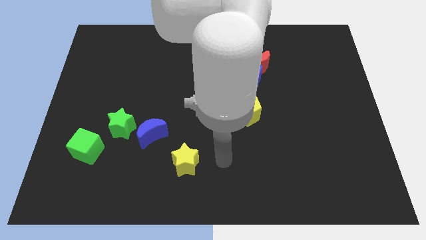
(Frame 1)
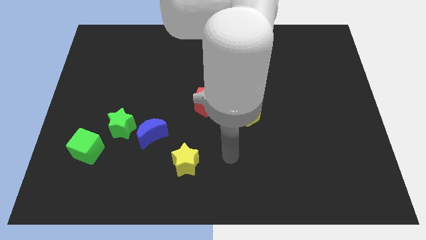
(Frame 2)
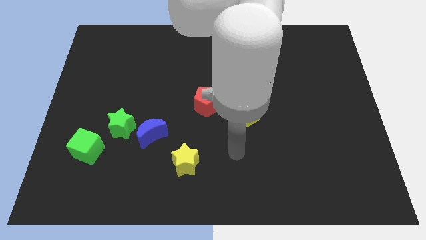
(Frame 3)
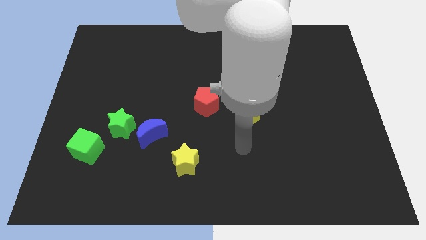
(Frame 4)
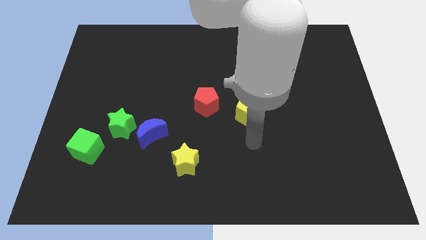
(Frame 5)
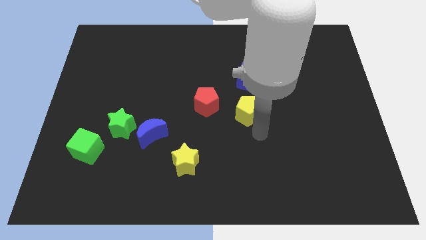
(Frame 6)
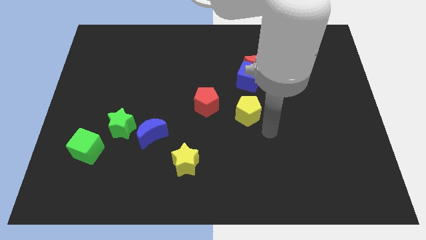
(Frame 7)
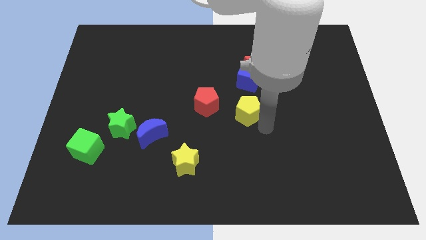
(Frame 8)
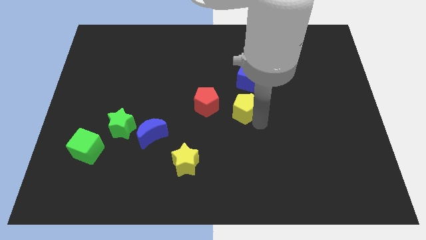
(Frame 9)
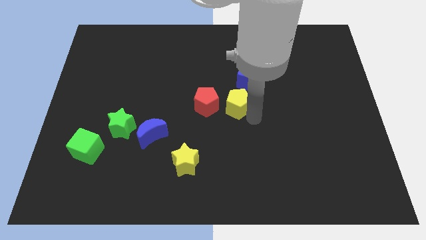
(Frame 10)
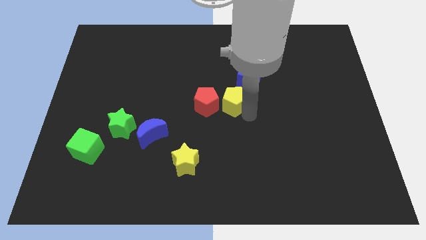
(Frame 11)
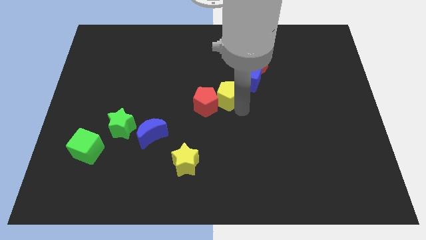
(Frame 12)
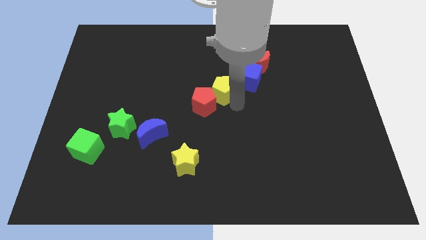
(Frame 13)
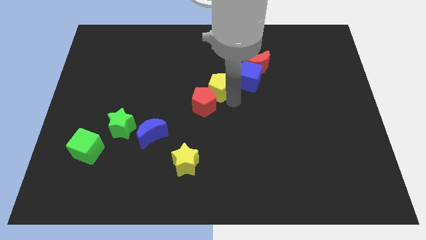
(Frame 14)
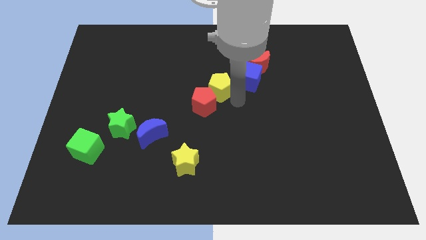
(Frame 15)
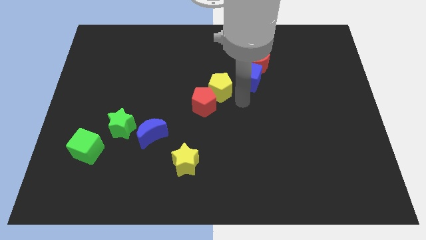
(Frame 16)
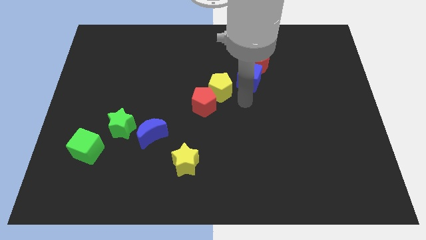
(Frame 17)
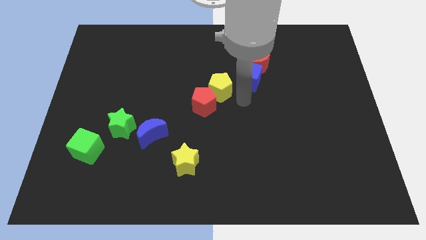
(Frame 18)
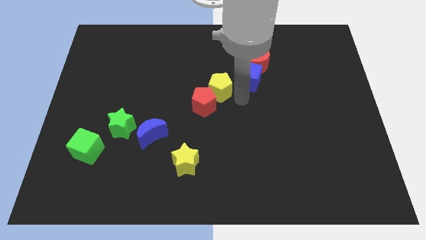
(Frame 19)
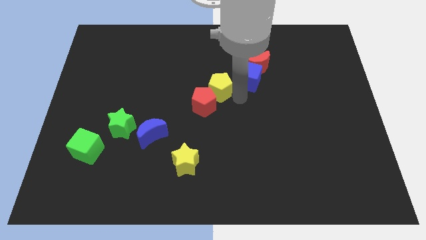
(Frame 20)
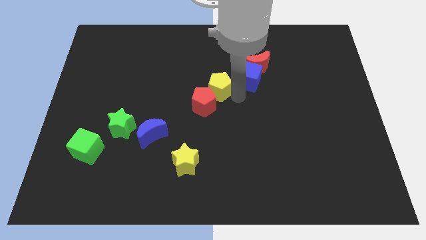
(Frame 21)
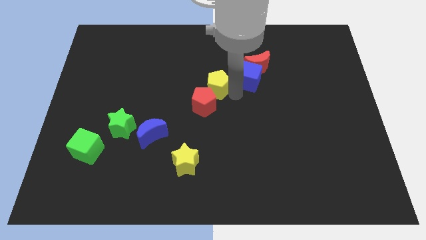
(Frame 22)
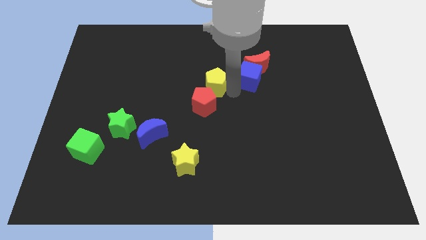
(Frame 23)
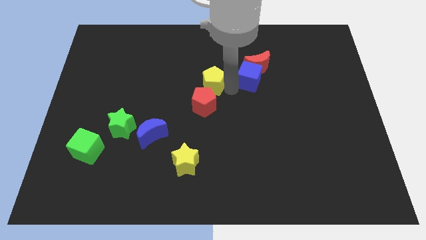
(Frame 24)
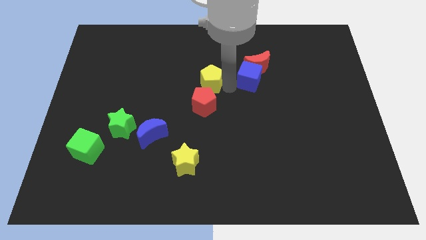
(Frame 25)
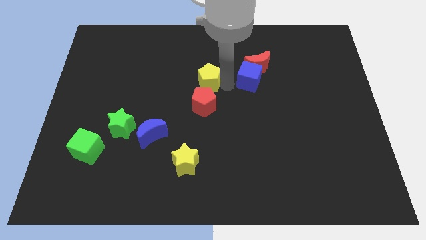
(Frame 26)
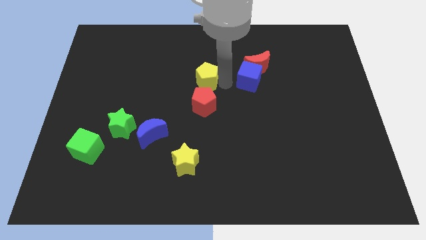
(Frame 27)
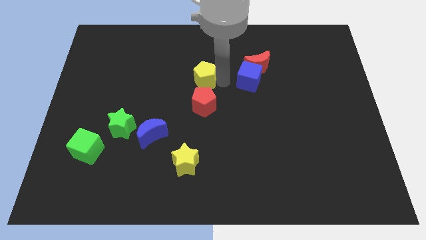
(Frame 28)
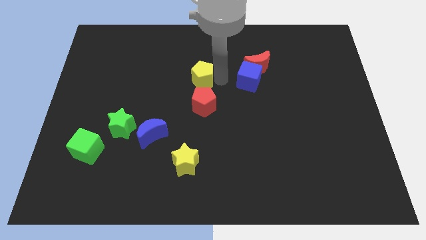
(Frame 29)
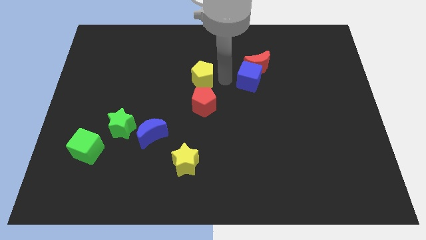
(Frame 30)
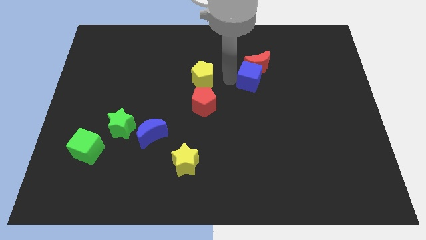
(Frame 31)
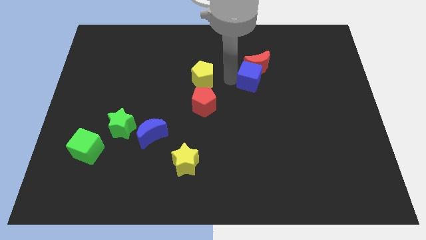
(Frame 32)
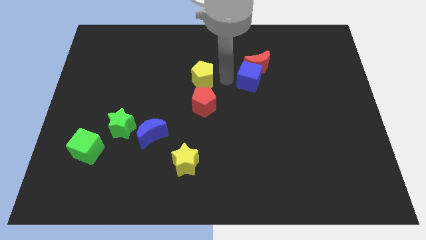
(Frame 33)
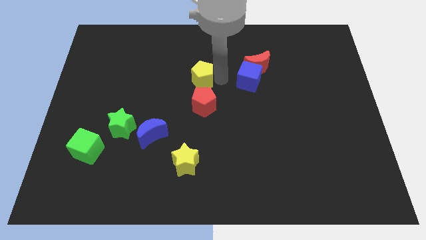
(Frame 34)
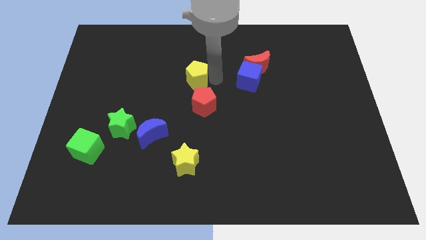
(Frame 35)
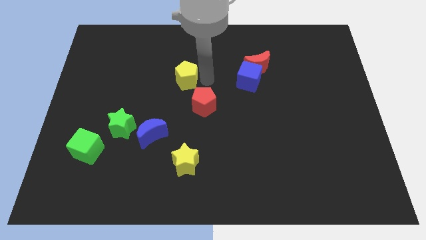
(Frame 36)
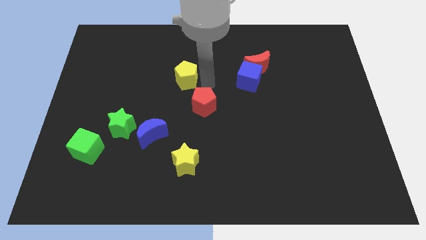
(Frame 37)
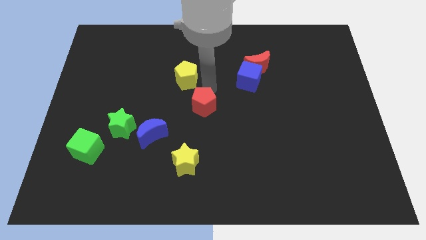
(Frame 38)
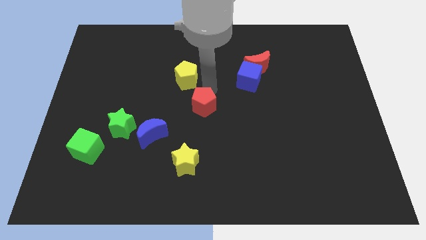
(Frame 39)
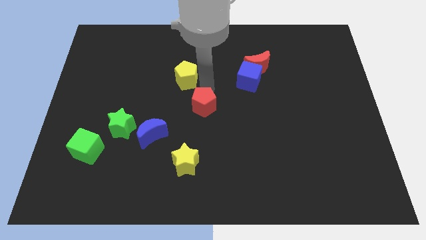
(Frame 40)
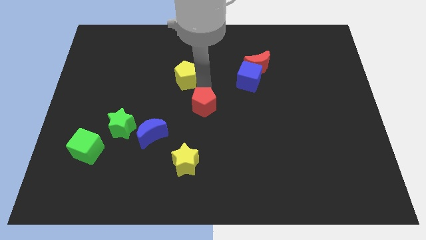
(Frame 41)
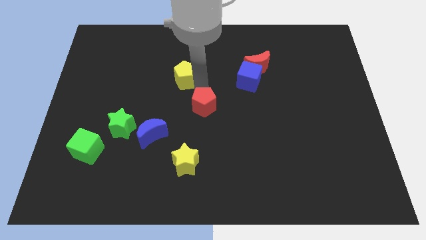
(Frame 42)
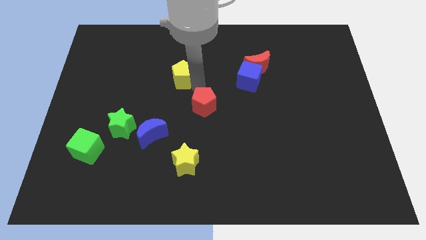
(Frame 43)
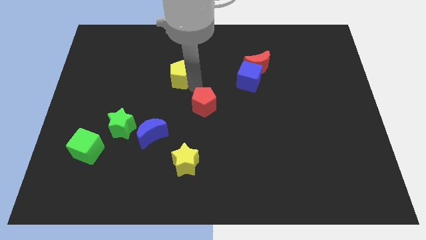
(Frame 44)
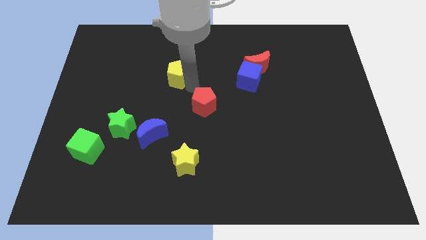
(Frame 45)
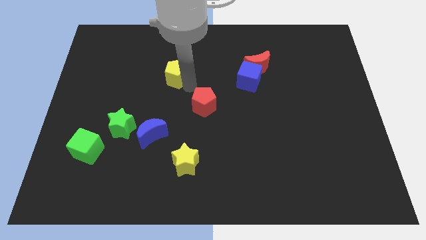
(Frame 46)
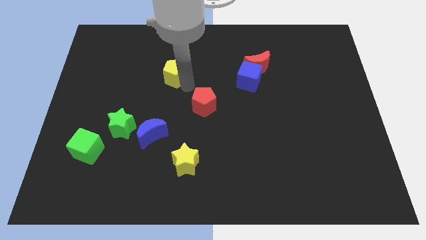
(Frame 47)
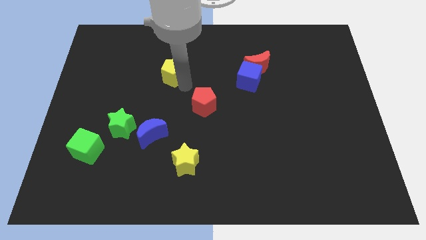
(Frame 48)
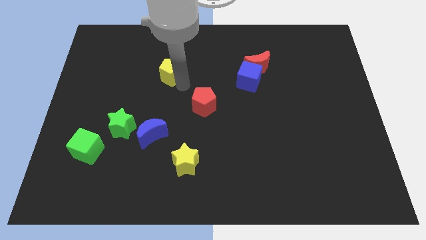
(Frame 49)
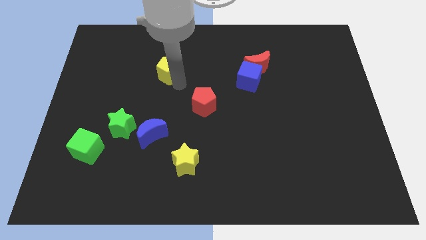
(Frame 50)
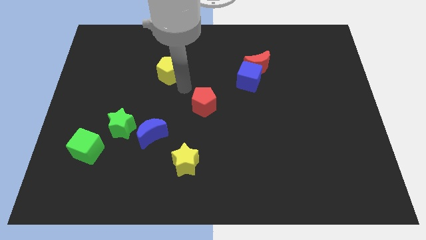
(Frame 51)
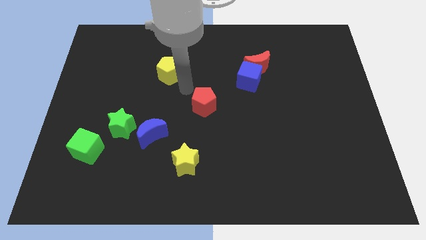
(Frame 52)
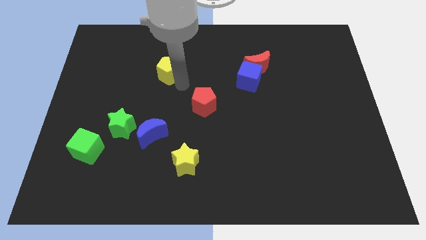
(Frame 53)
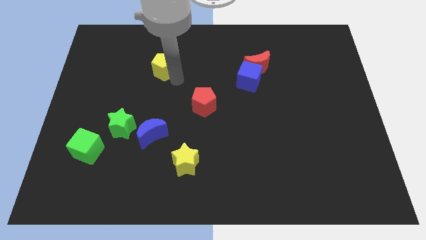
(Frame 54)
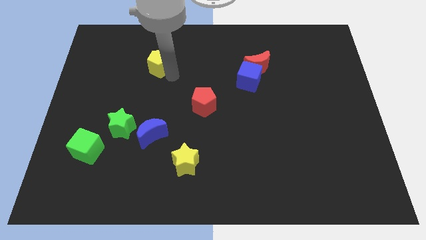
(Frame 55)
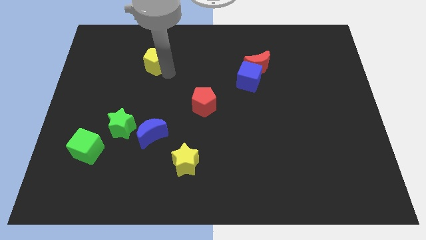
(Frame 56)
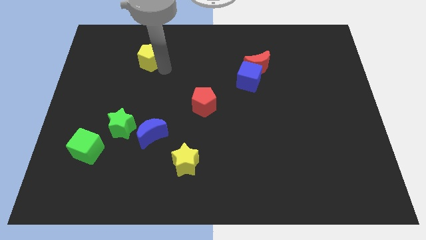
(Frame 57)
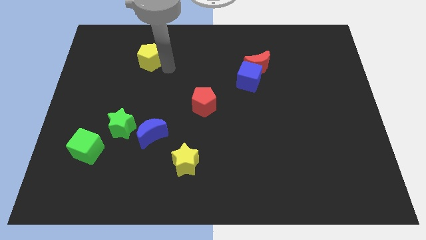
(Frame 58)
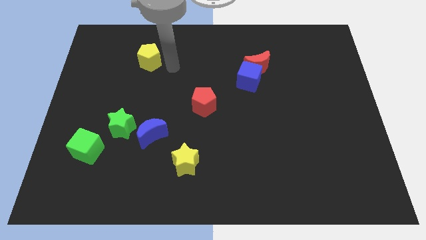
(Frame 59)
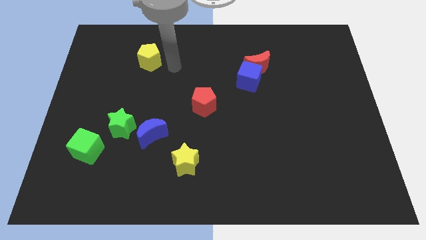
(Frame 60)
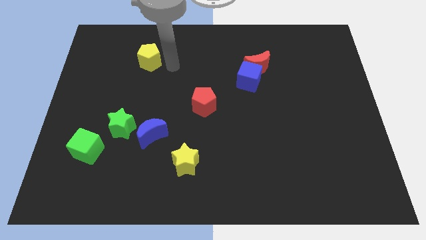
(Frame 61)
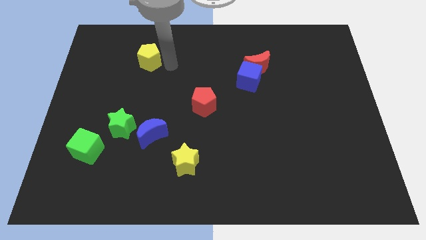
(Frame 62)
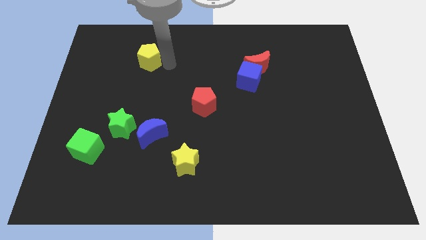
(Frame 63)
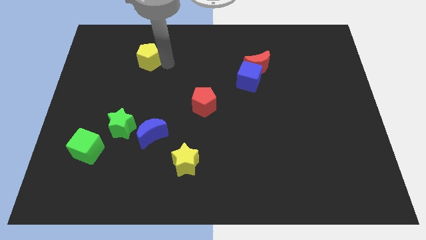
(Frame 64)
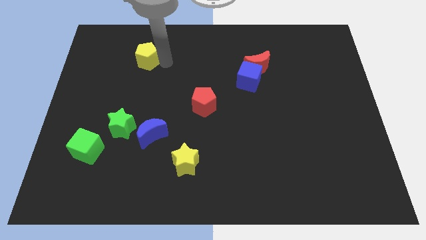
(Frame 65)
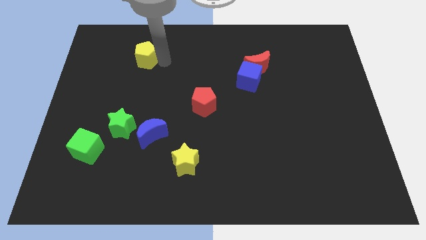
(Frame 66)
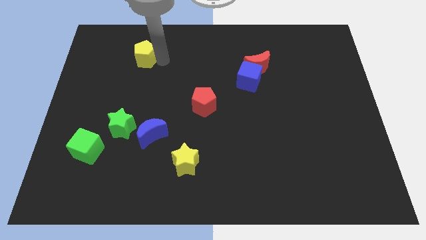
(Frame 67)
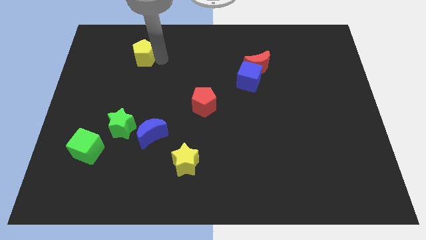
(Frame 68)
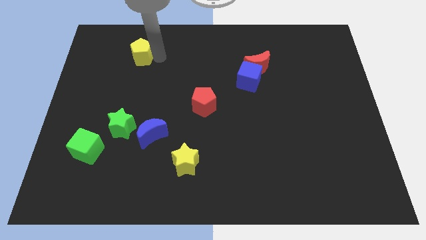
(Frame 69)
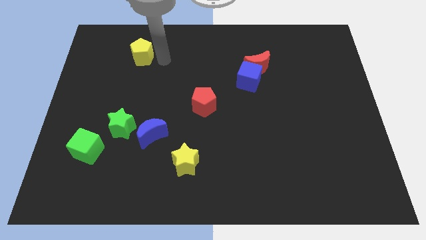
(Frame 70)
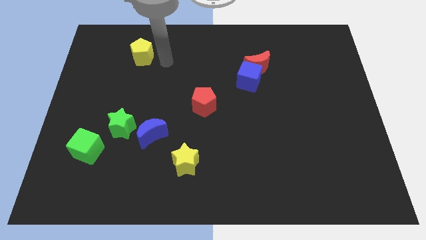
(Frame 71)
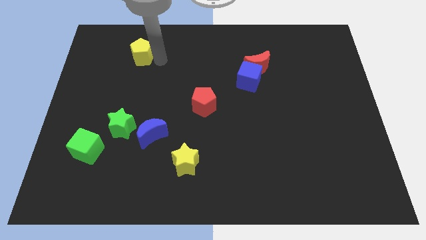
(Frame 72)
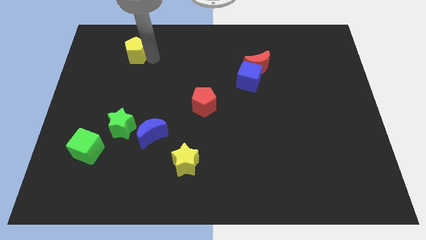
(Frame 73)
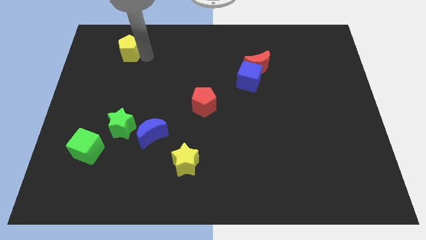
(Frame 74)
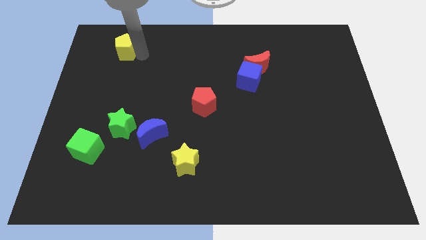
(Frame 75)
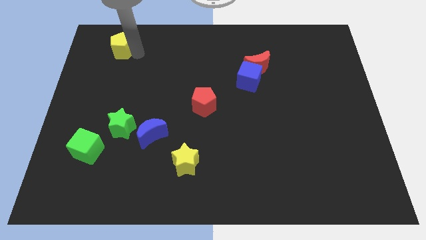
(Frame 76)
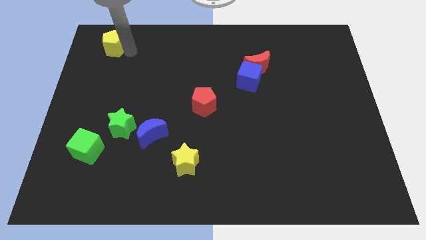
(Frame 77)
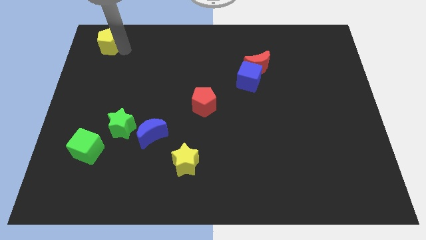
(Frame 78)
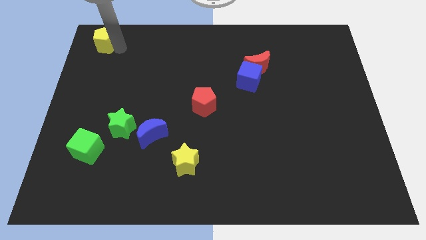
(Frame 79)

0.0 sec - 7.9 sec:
push the yellow pentagon to the top left
